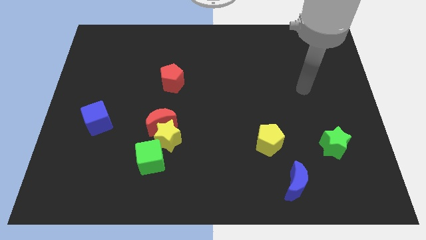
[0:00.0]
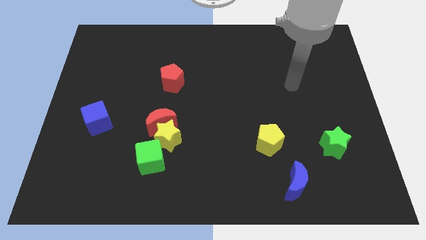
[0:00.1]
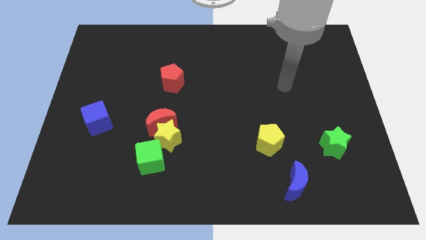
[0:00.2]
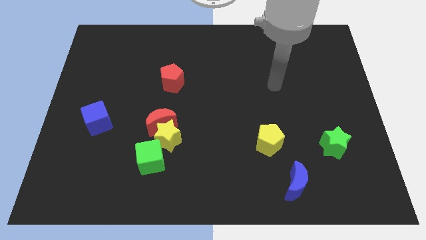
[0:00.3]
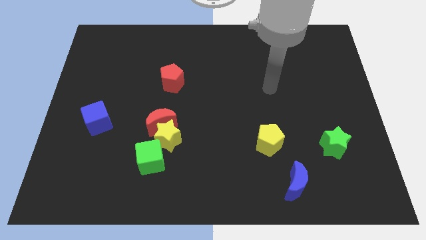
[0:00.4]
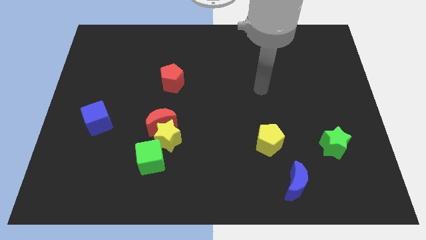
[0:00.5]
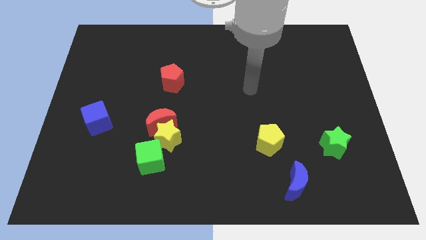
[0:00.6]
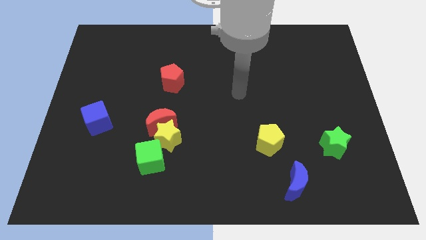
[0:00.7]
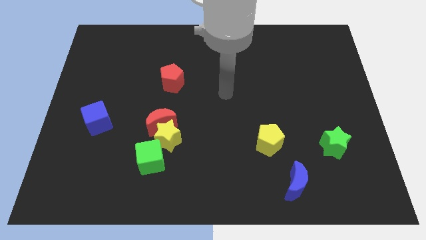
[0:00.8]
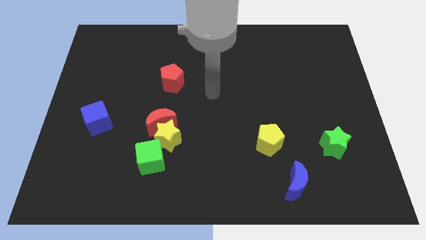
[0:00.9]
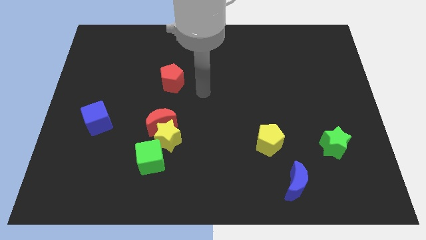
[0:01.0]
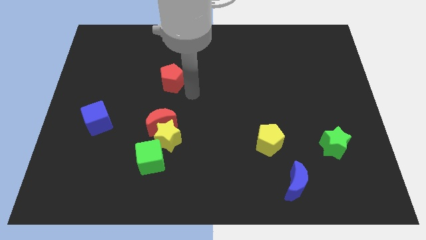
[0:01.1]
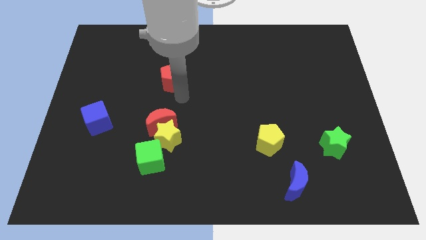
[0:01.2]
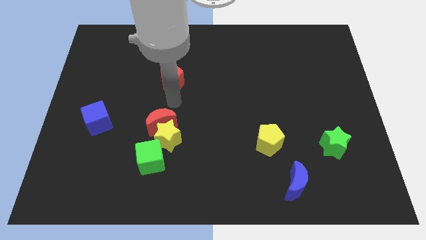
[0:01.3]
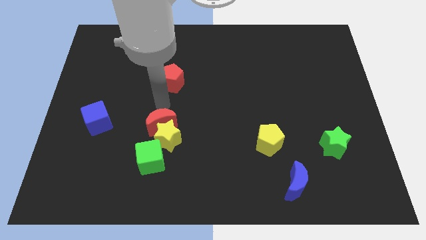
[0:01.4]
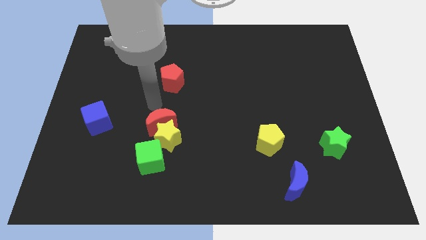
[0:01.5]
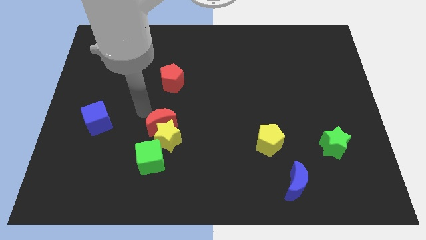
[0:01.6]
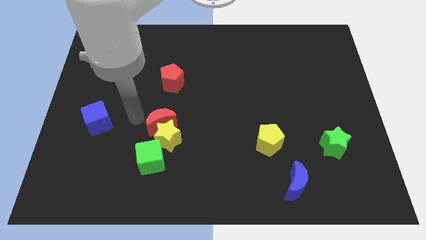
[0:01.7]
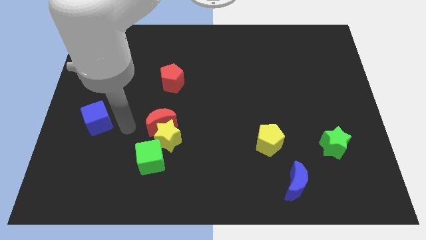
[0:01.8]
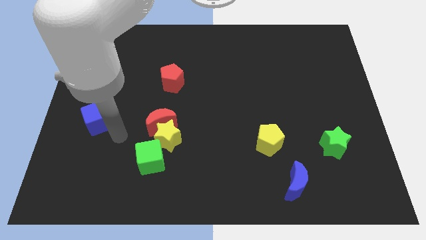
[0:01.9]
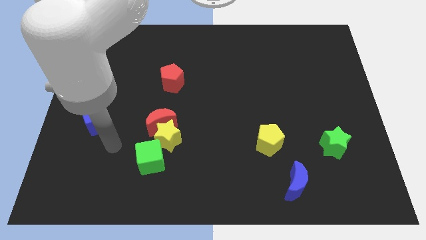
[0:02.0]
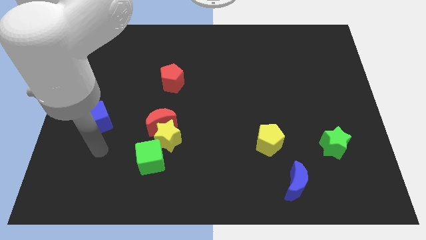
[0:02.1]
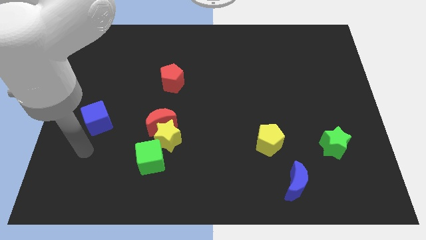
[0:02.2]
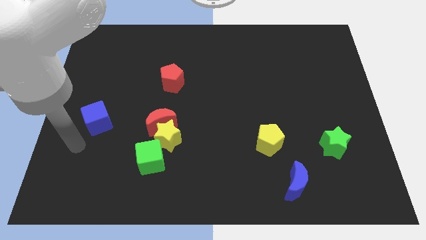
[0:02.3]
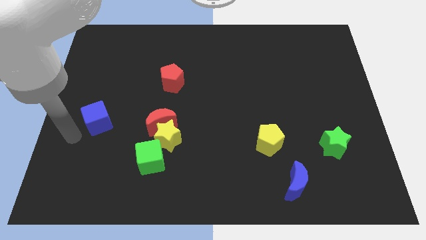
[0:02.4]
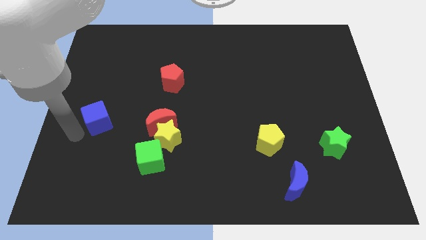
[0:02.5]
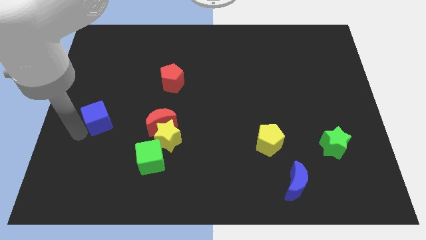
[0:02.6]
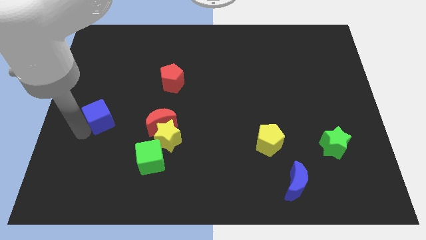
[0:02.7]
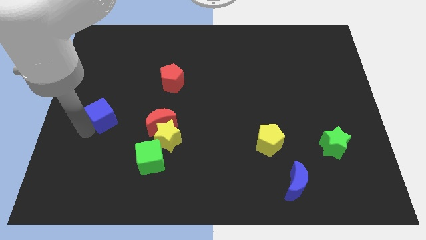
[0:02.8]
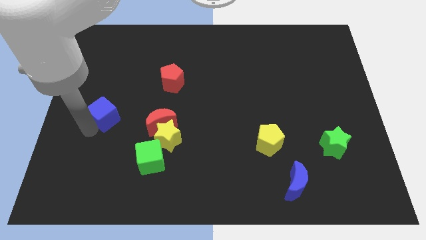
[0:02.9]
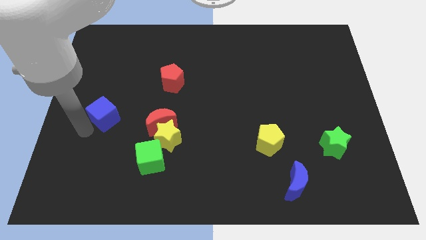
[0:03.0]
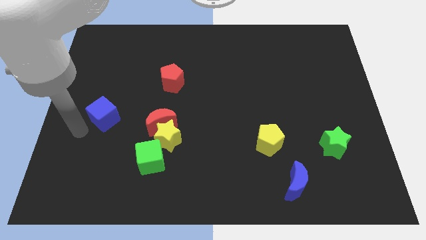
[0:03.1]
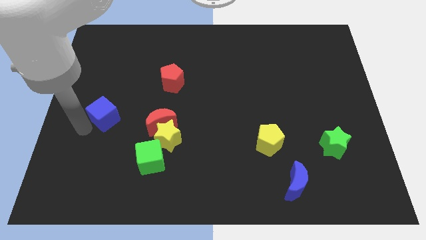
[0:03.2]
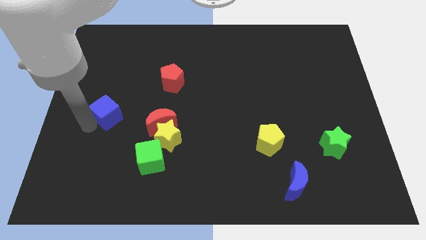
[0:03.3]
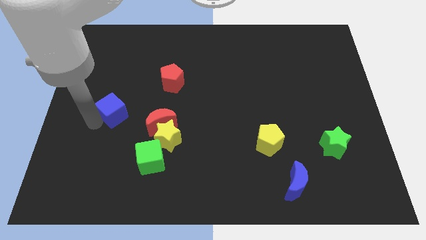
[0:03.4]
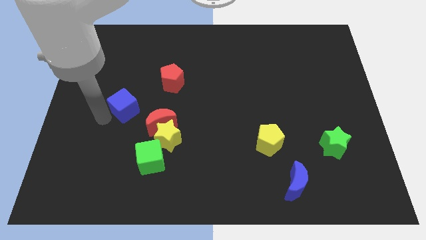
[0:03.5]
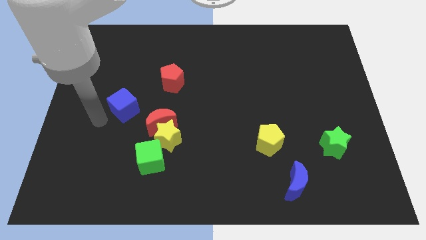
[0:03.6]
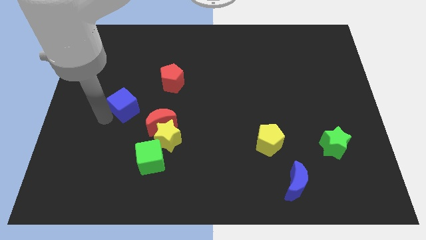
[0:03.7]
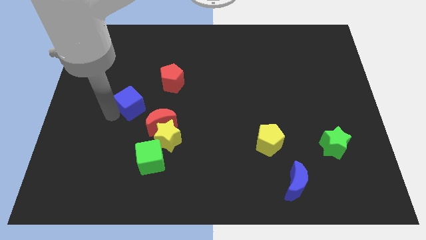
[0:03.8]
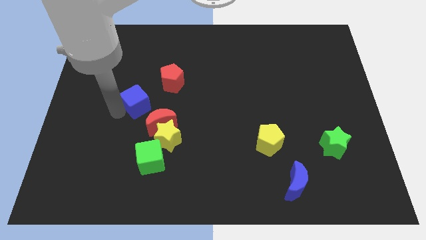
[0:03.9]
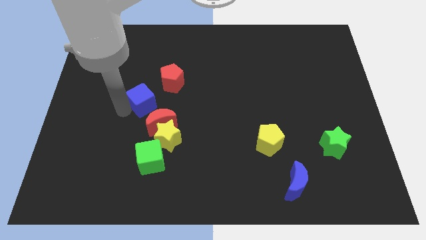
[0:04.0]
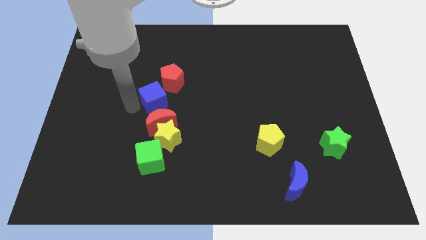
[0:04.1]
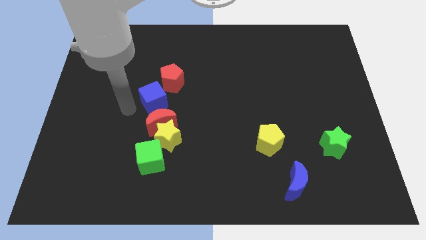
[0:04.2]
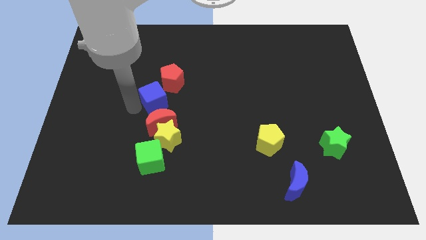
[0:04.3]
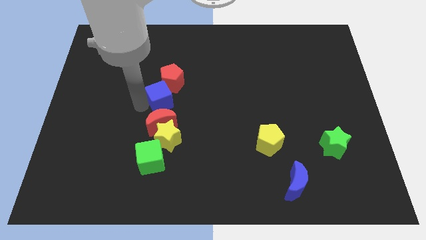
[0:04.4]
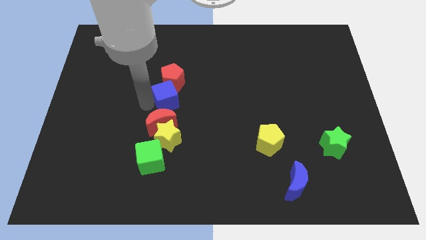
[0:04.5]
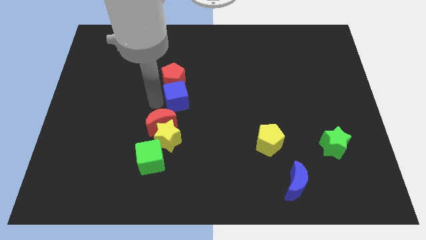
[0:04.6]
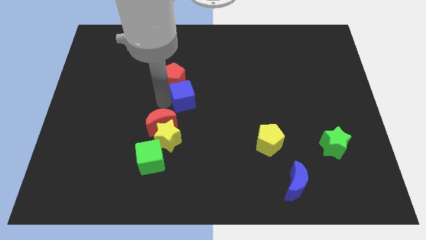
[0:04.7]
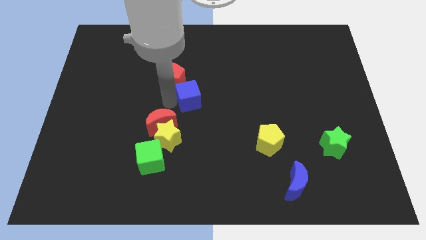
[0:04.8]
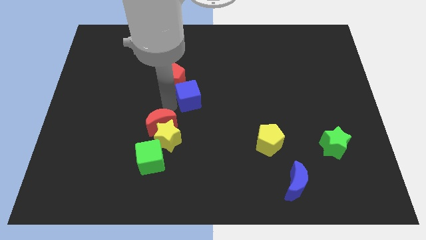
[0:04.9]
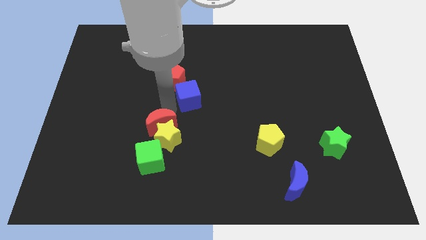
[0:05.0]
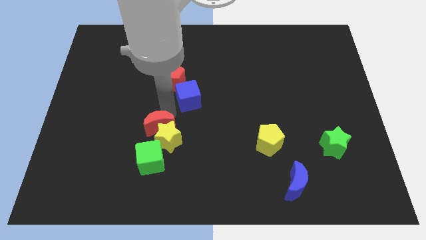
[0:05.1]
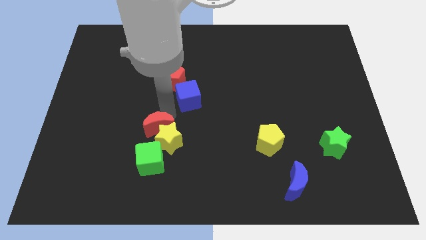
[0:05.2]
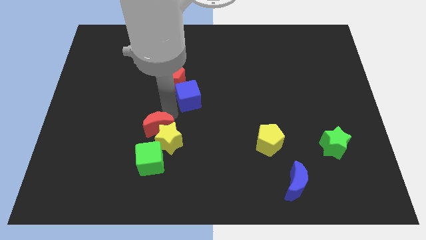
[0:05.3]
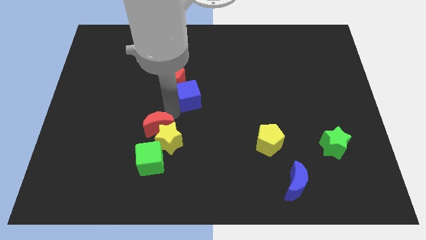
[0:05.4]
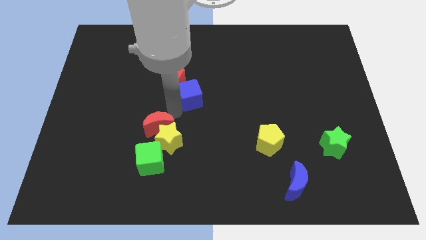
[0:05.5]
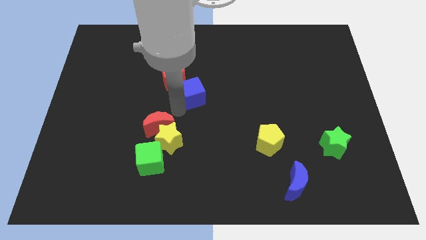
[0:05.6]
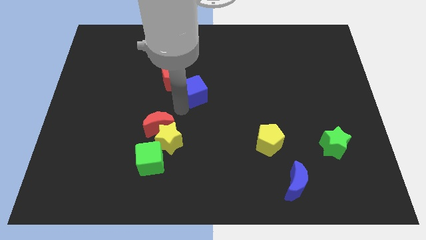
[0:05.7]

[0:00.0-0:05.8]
put the blue cube just right of the red pentagon

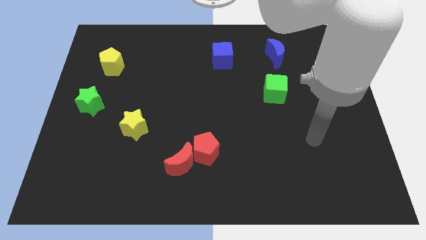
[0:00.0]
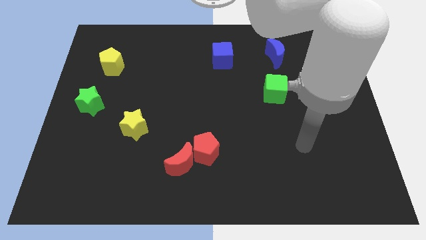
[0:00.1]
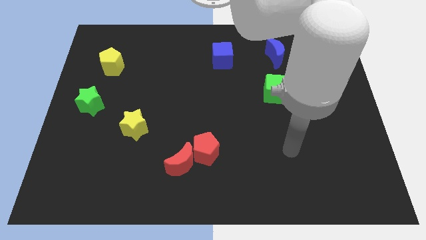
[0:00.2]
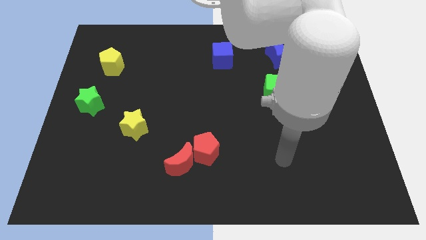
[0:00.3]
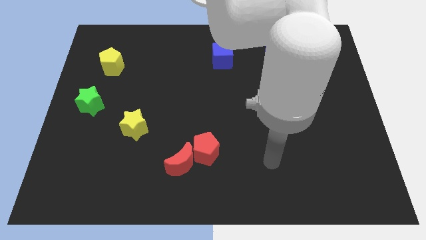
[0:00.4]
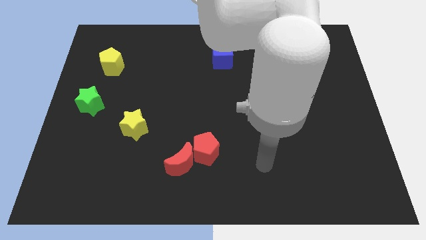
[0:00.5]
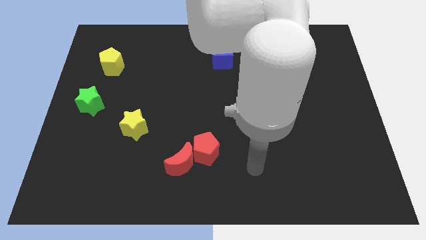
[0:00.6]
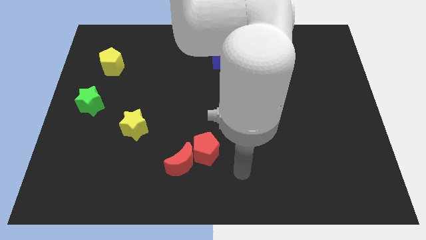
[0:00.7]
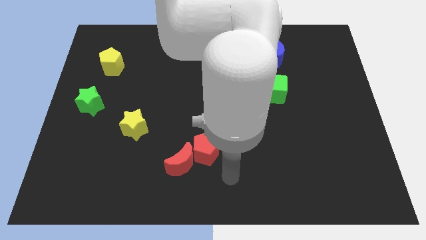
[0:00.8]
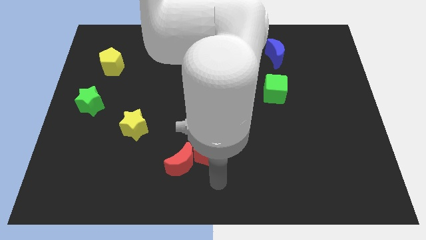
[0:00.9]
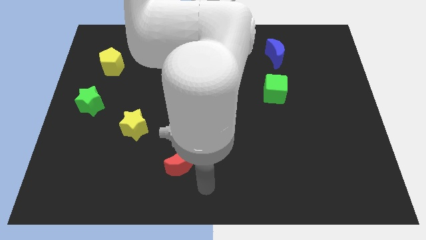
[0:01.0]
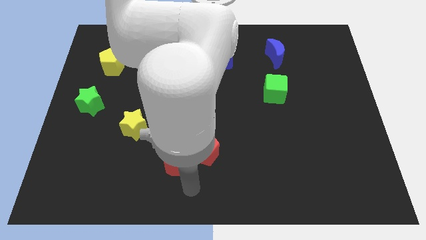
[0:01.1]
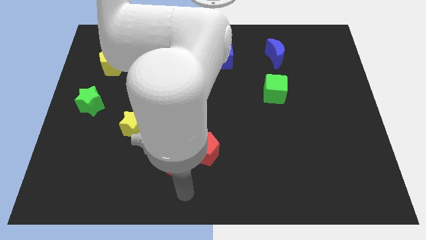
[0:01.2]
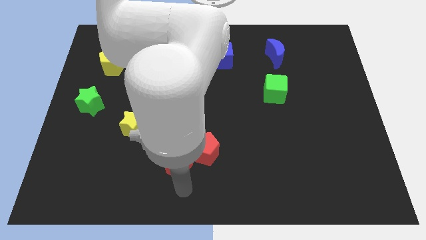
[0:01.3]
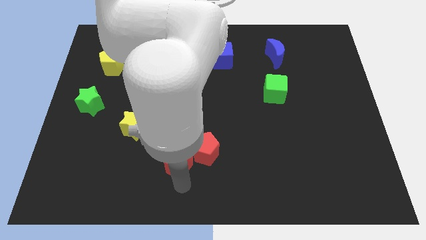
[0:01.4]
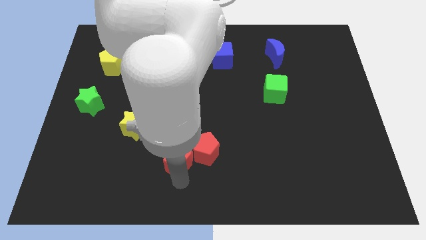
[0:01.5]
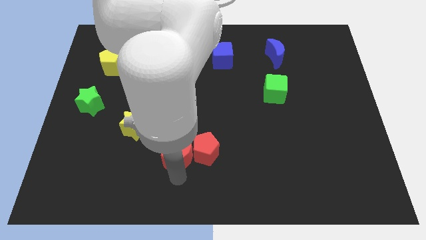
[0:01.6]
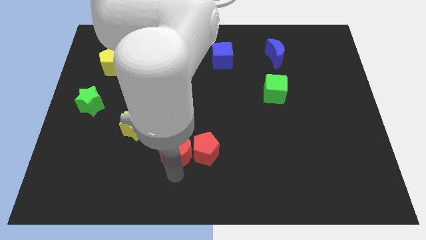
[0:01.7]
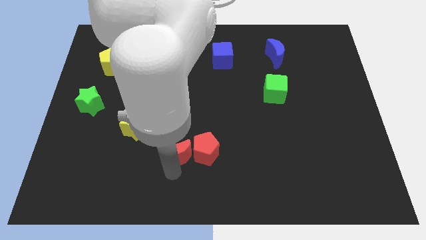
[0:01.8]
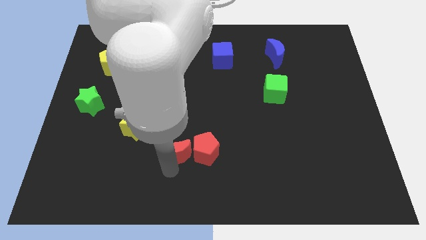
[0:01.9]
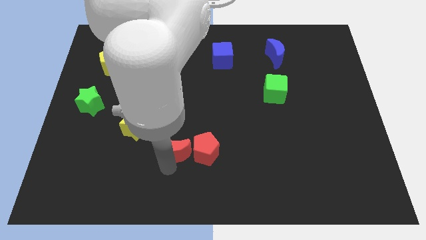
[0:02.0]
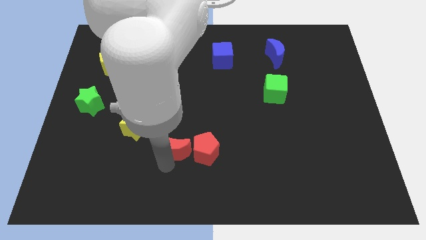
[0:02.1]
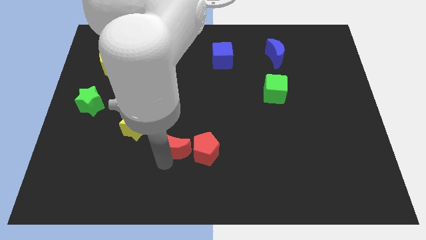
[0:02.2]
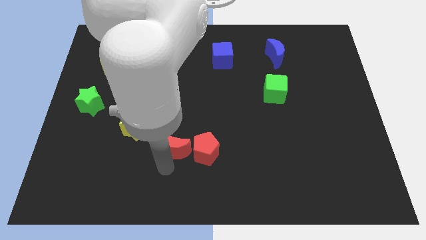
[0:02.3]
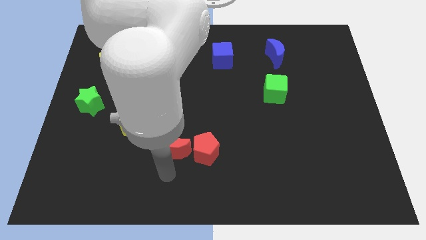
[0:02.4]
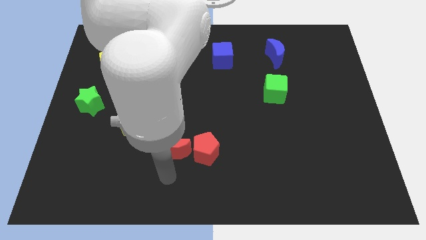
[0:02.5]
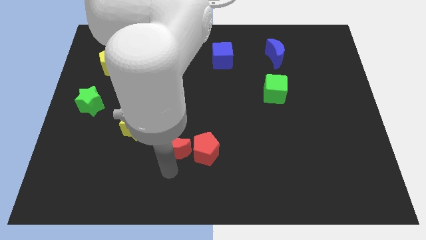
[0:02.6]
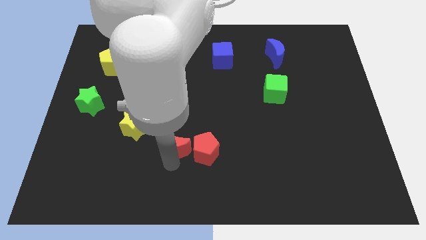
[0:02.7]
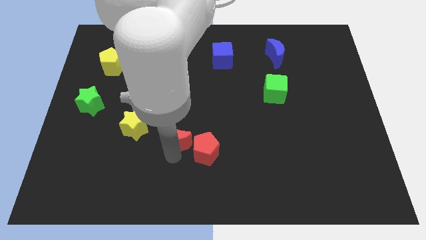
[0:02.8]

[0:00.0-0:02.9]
slide the red moon right of the yellow star
